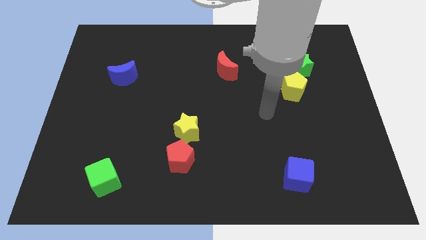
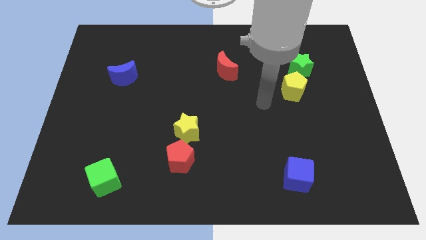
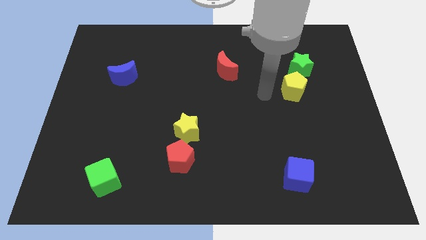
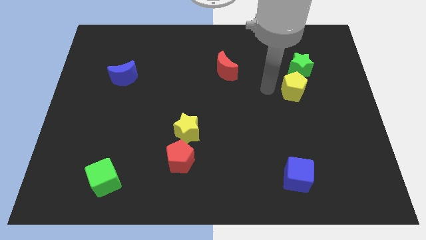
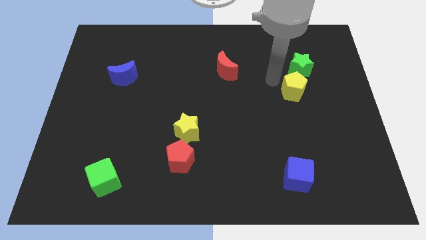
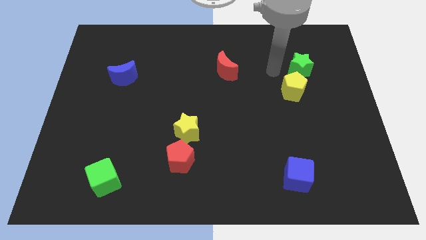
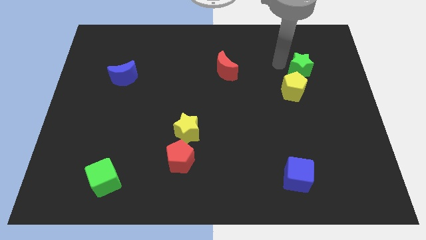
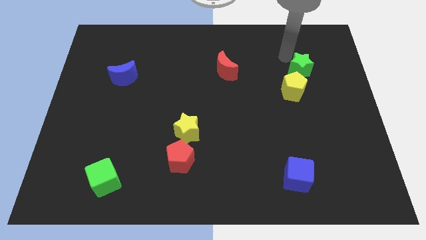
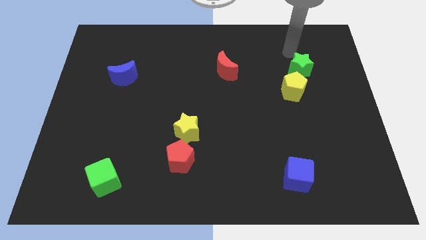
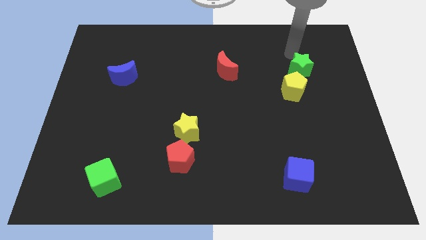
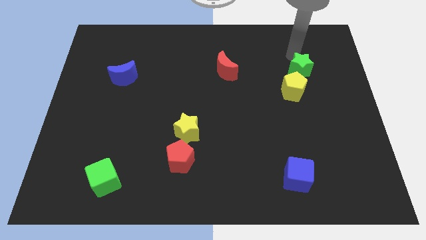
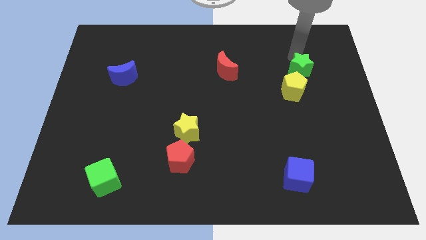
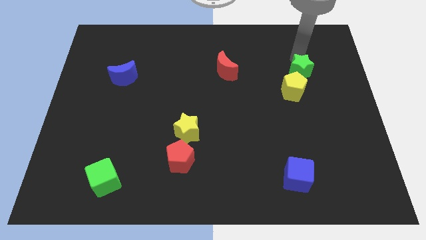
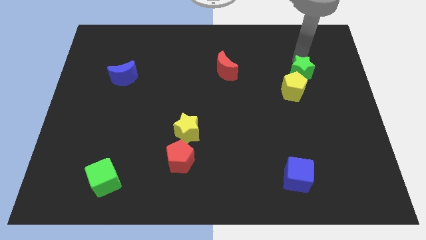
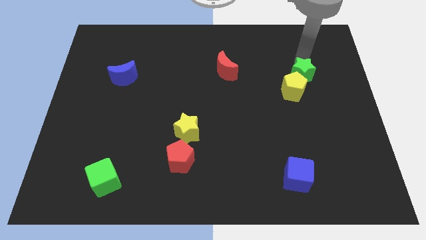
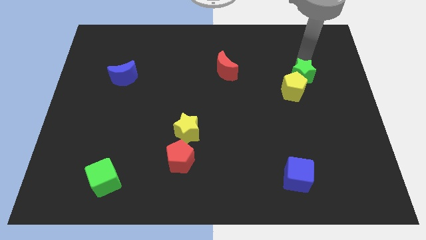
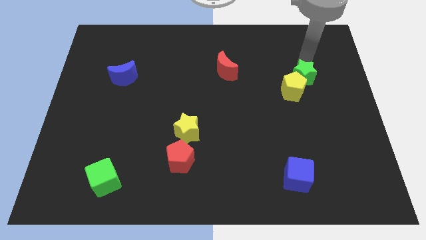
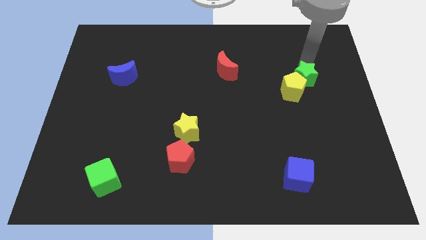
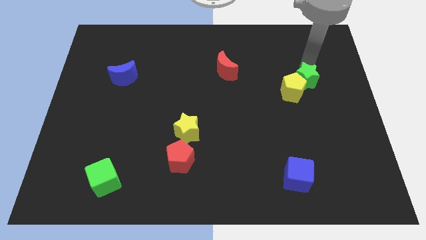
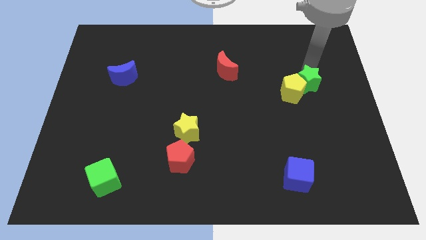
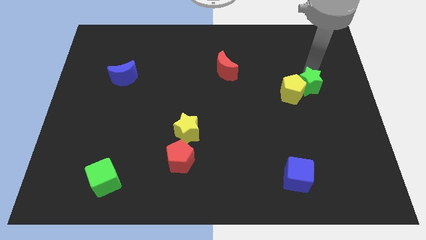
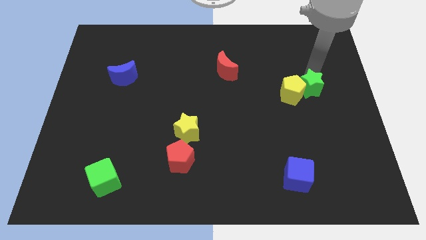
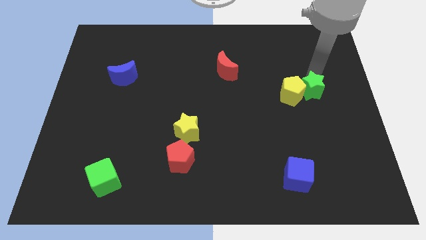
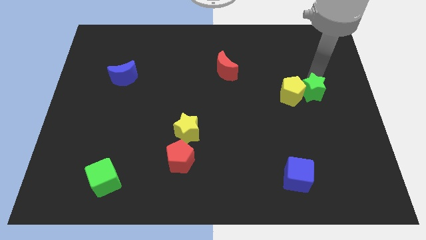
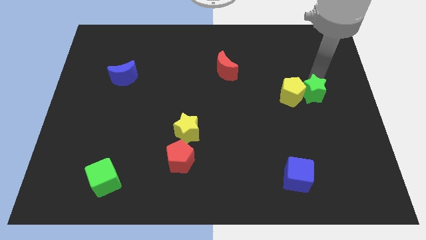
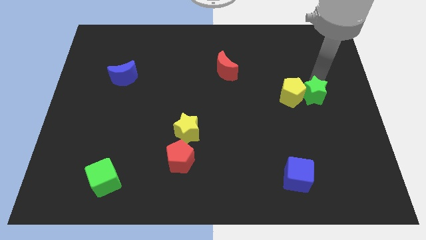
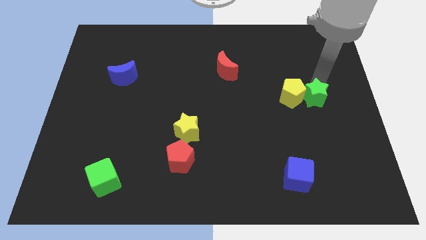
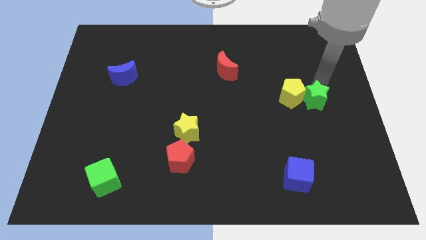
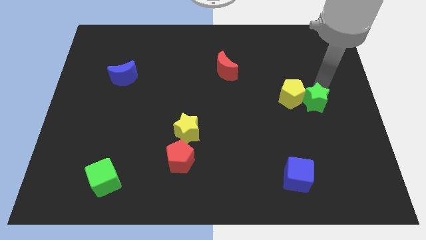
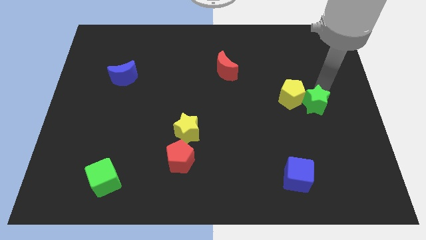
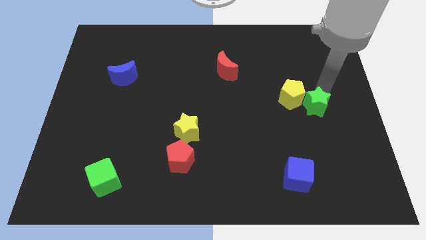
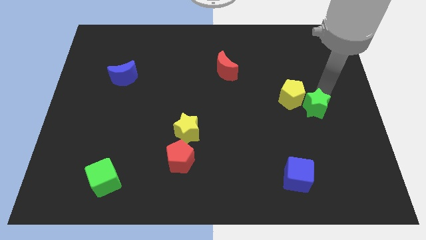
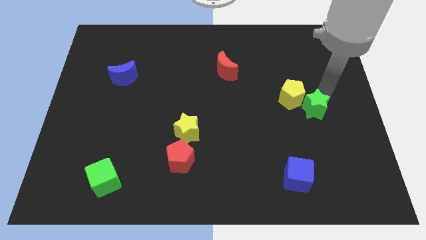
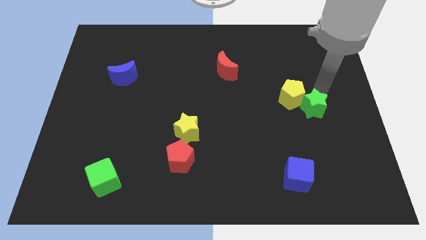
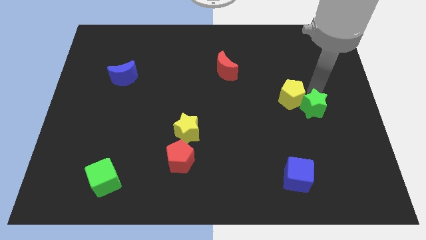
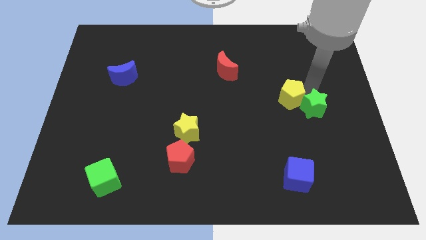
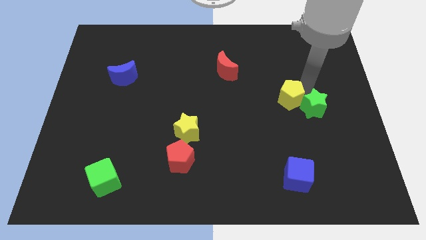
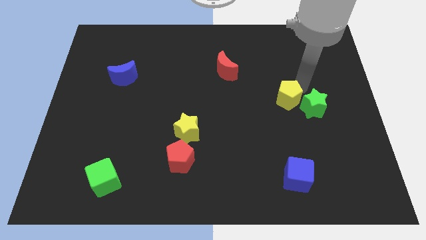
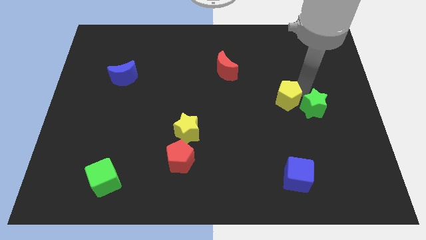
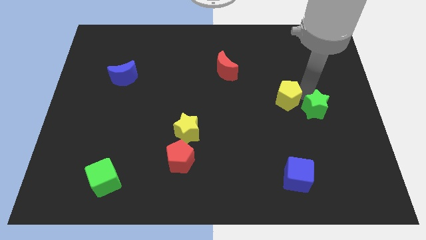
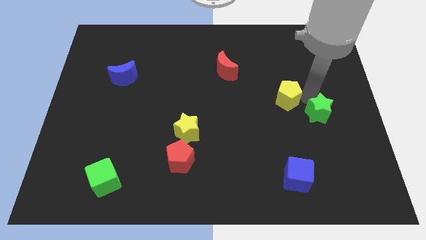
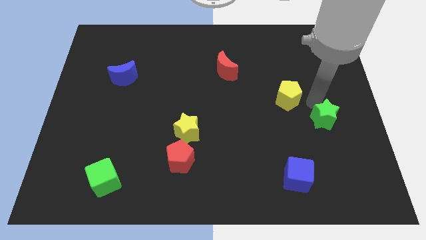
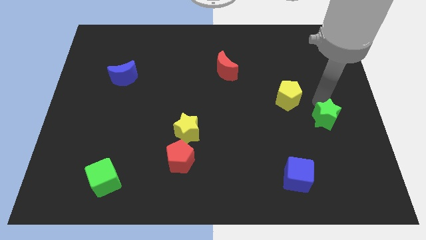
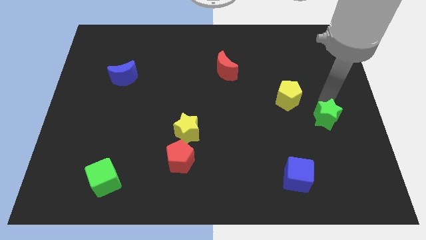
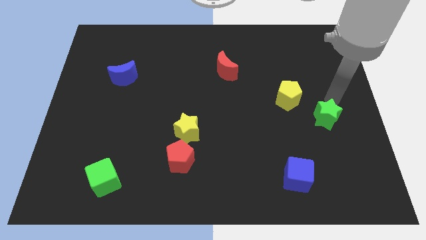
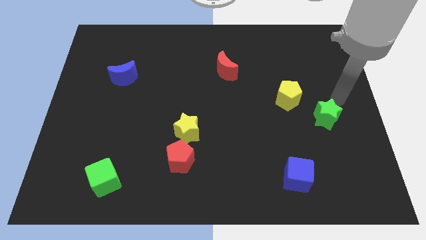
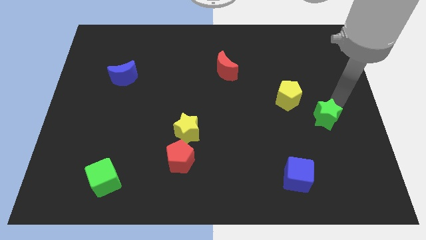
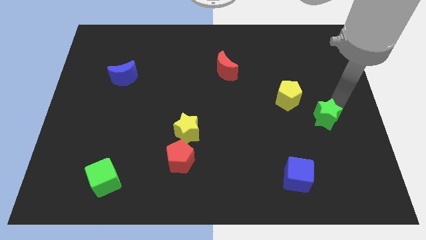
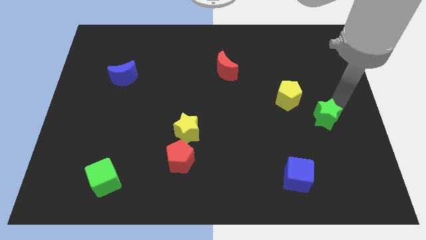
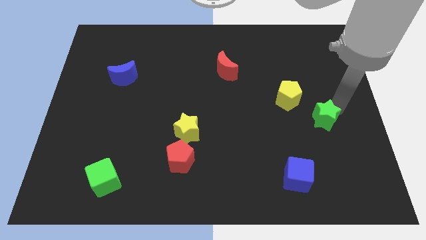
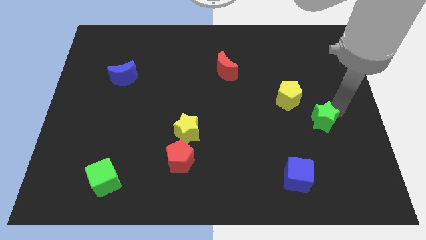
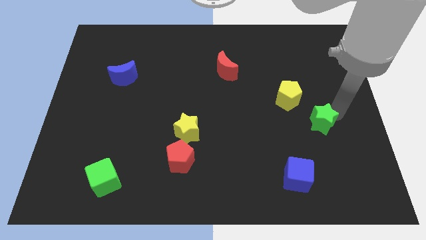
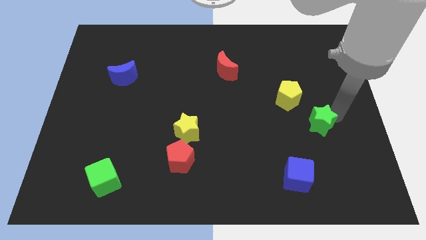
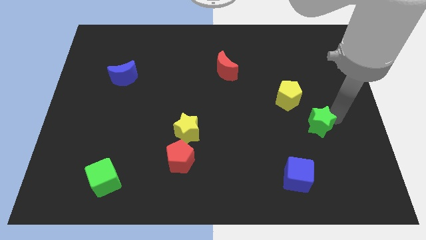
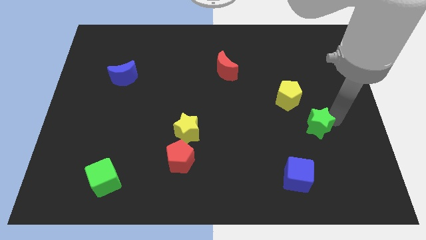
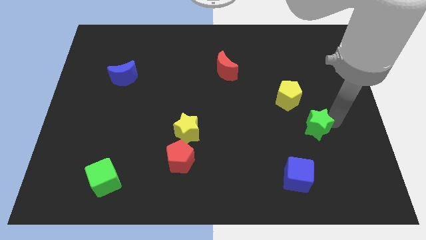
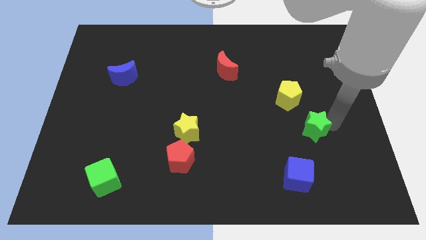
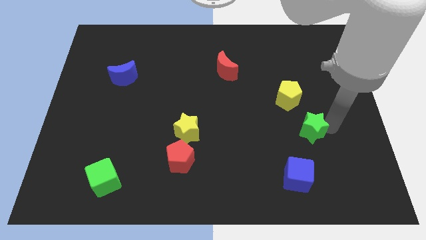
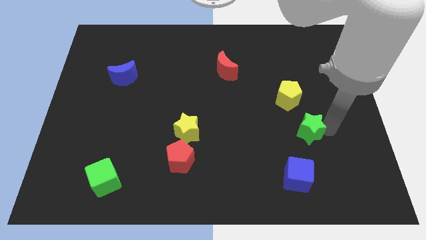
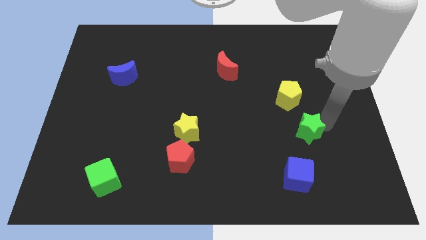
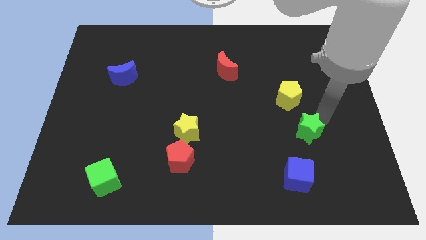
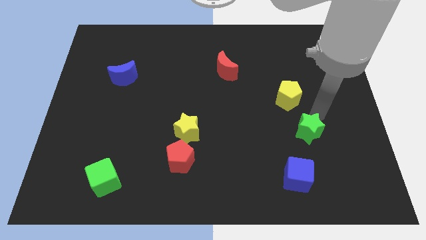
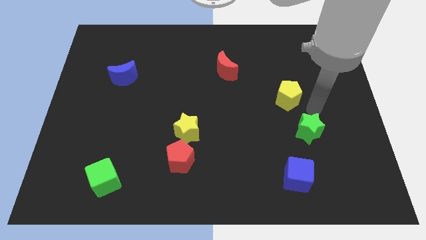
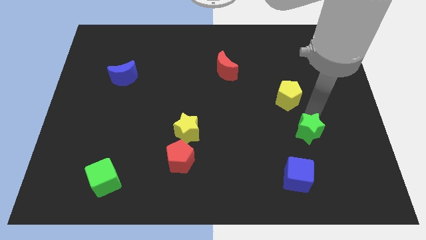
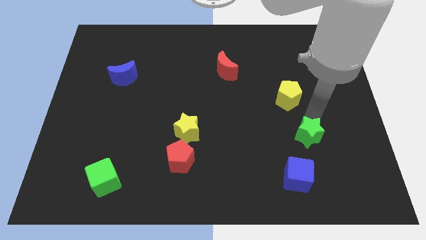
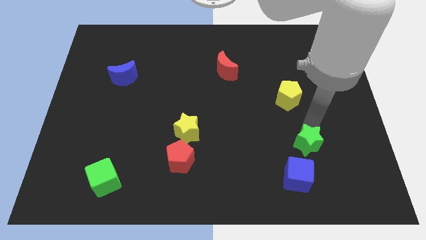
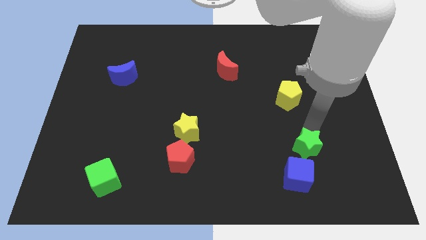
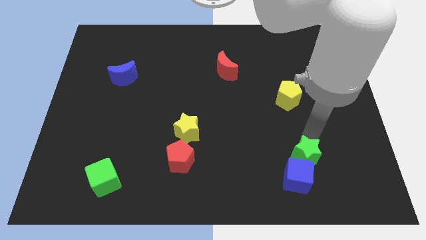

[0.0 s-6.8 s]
push the green star next to the blue cube
